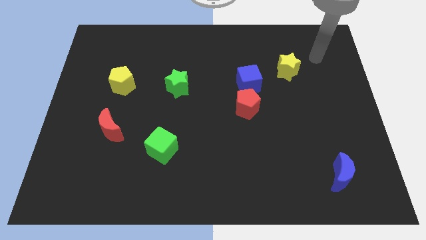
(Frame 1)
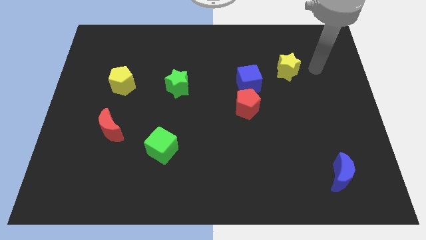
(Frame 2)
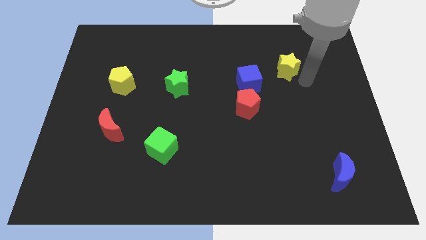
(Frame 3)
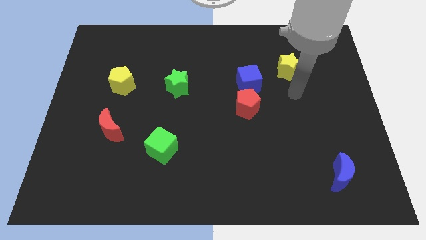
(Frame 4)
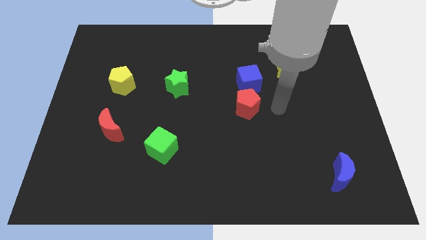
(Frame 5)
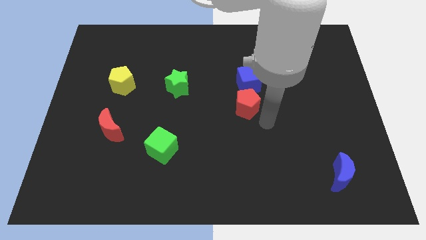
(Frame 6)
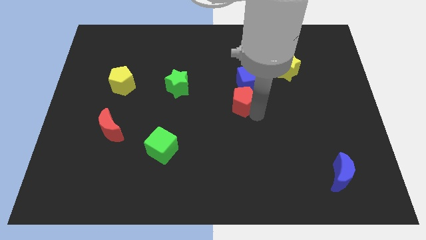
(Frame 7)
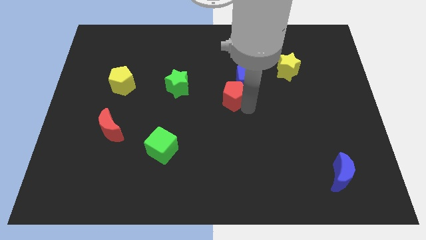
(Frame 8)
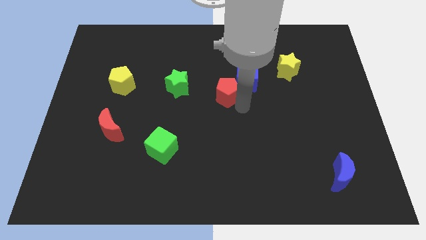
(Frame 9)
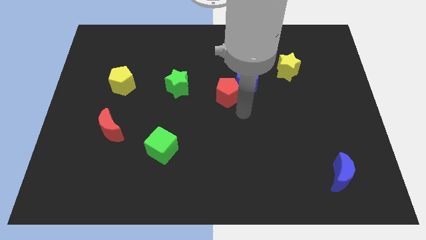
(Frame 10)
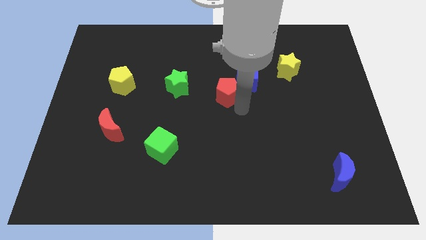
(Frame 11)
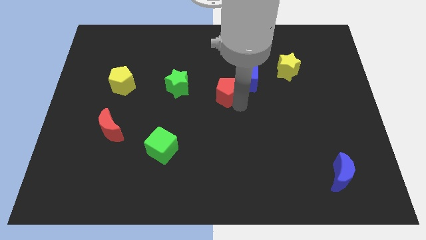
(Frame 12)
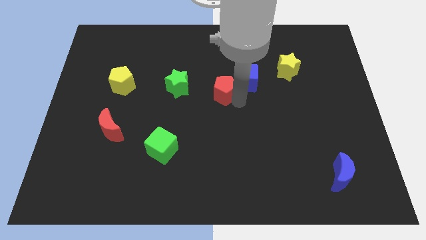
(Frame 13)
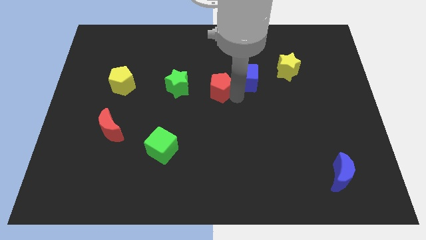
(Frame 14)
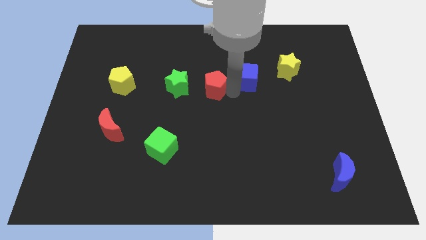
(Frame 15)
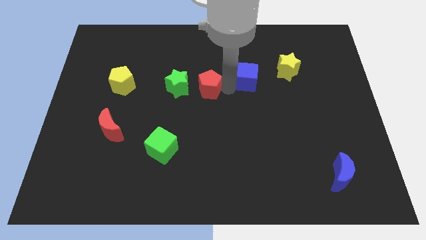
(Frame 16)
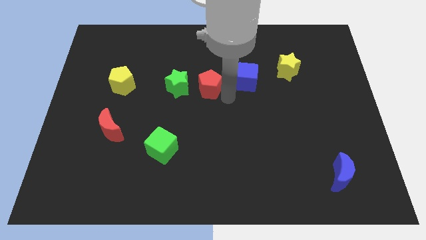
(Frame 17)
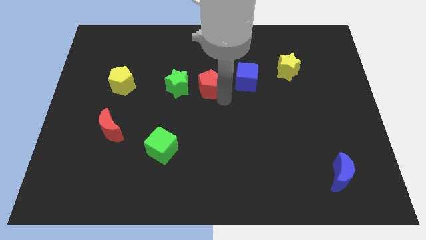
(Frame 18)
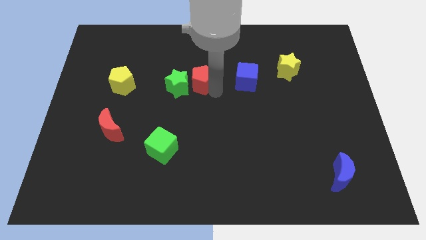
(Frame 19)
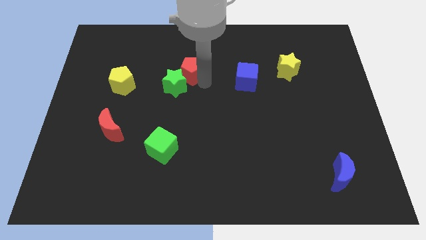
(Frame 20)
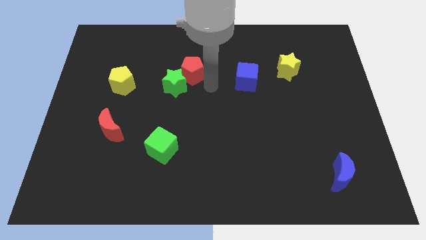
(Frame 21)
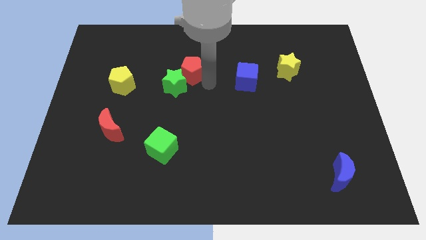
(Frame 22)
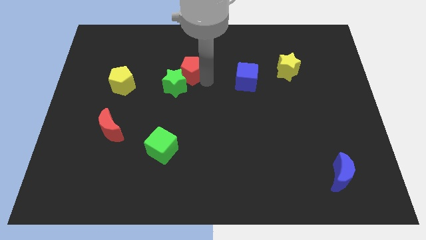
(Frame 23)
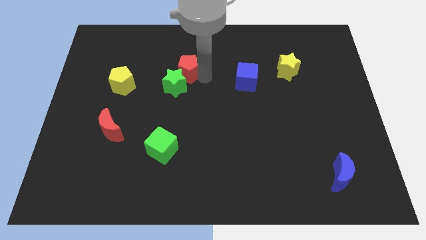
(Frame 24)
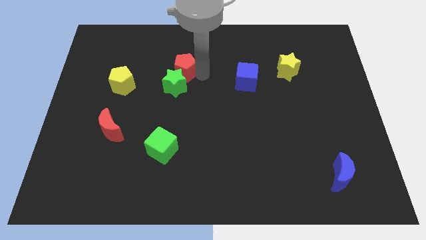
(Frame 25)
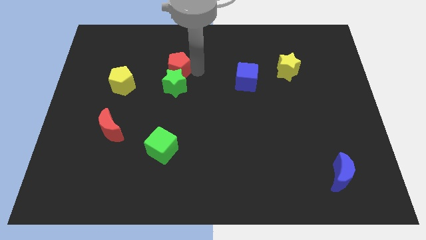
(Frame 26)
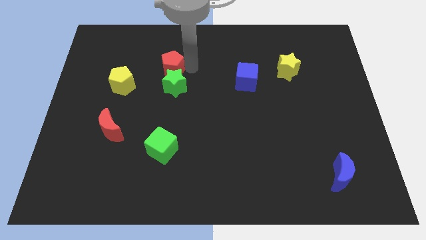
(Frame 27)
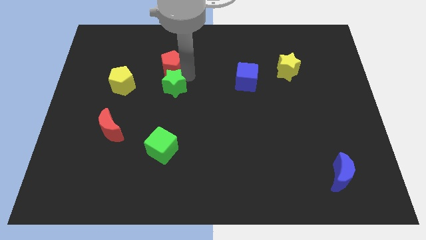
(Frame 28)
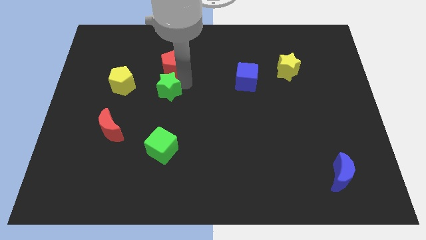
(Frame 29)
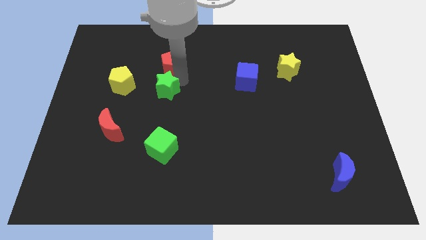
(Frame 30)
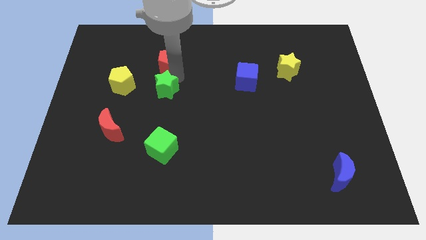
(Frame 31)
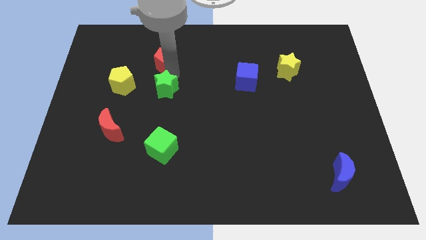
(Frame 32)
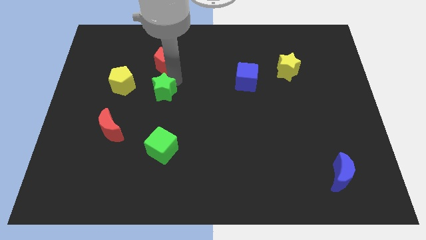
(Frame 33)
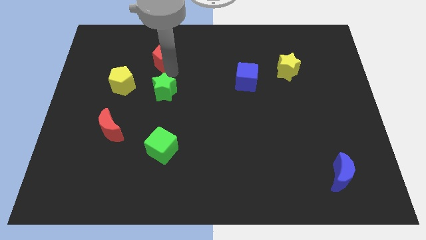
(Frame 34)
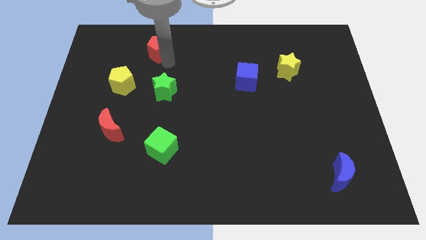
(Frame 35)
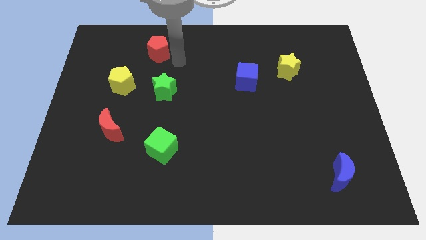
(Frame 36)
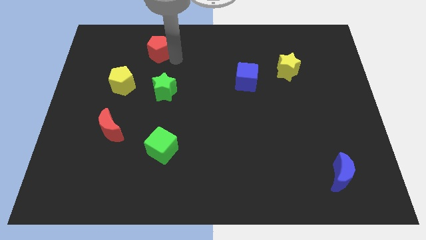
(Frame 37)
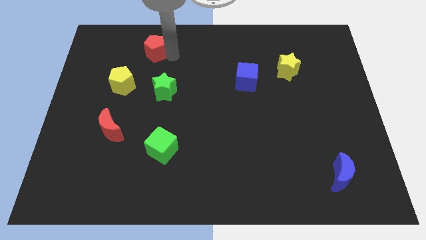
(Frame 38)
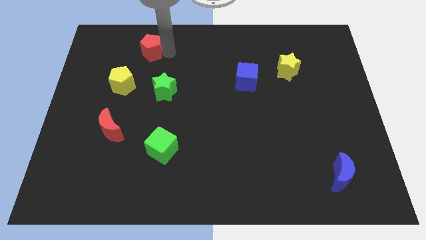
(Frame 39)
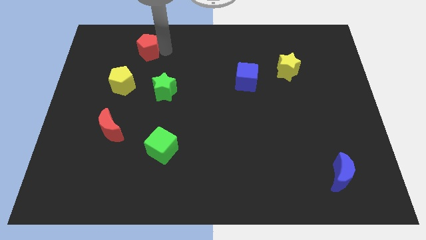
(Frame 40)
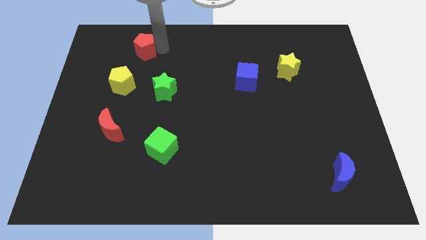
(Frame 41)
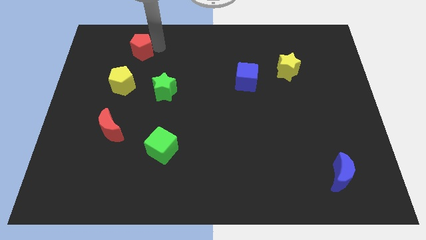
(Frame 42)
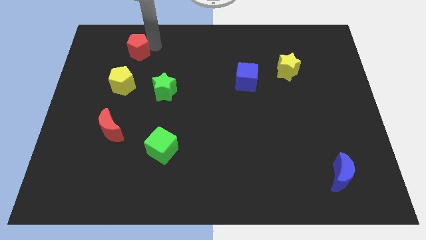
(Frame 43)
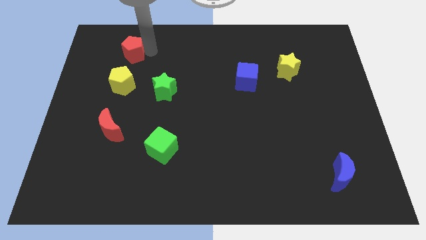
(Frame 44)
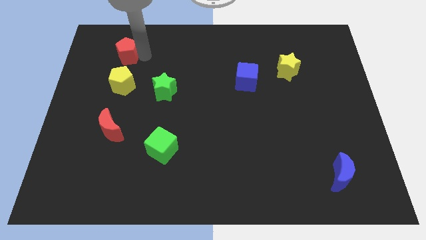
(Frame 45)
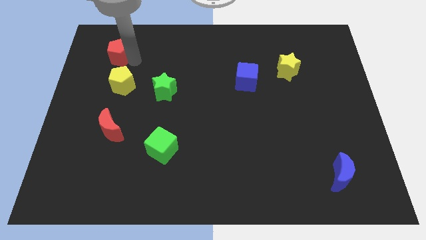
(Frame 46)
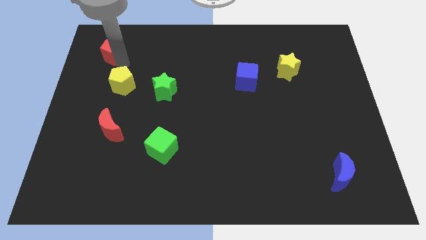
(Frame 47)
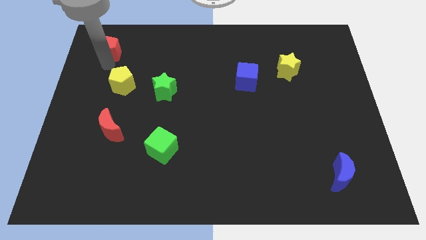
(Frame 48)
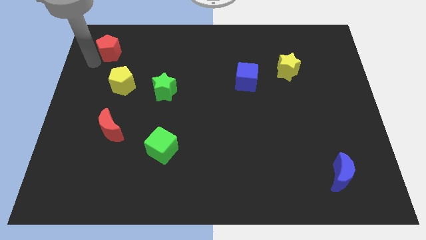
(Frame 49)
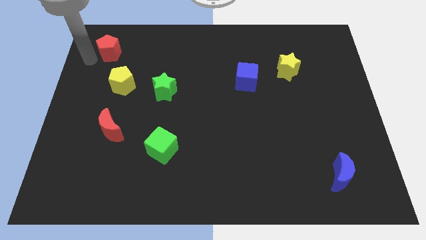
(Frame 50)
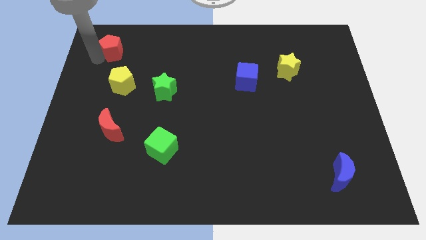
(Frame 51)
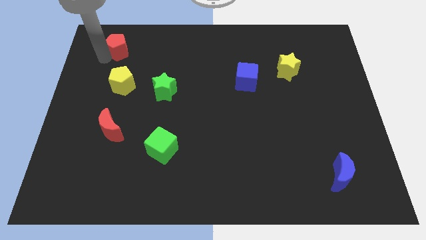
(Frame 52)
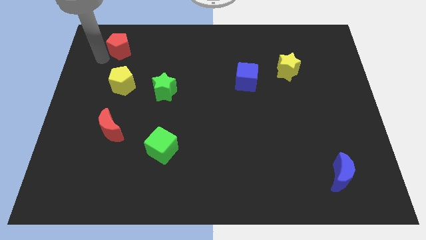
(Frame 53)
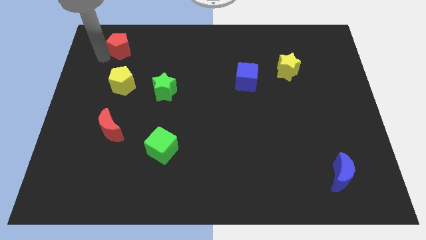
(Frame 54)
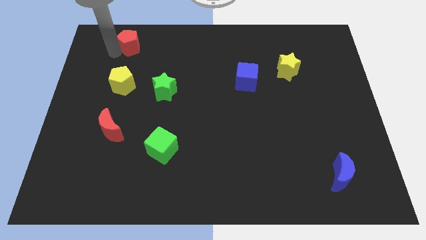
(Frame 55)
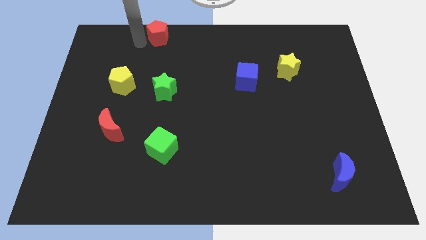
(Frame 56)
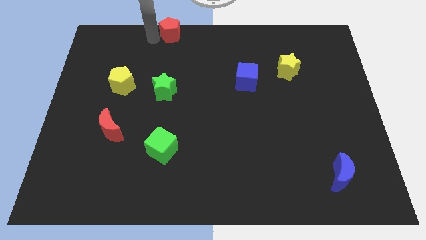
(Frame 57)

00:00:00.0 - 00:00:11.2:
put the red pentagon to the top
